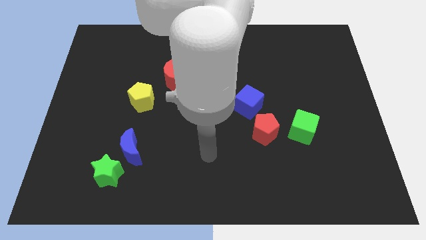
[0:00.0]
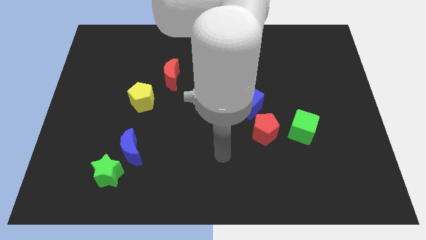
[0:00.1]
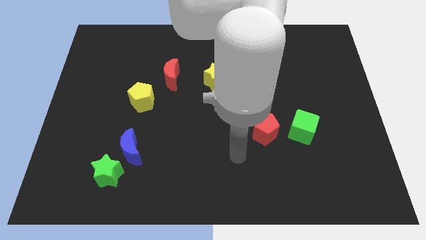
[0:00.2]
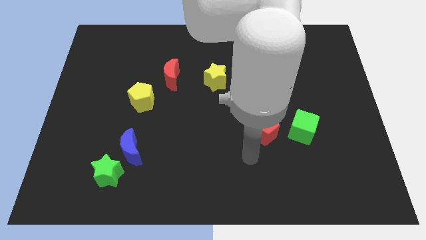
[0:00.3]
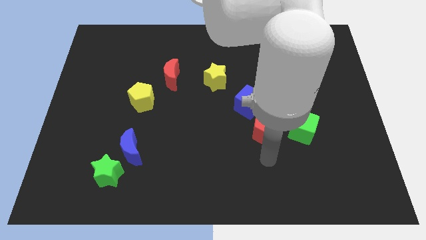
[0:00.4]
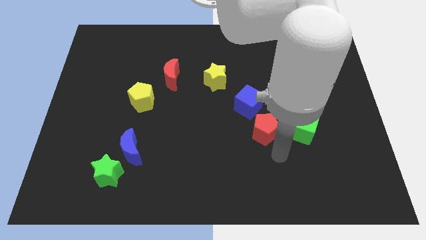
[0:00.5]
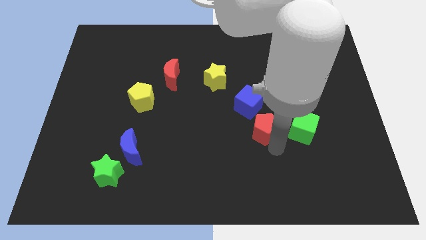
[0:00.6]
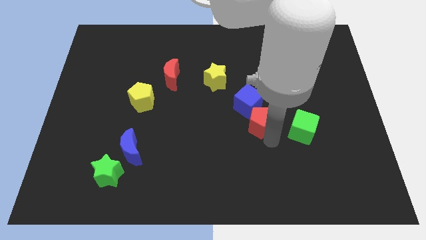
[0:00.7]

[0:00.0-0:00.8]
put the red pentagon towards the blue cube

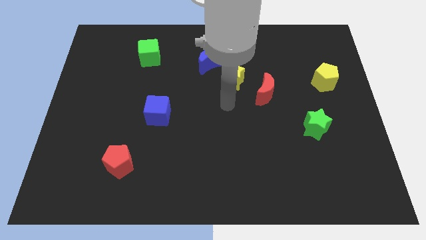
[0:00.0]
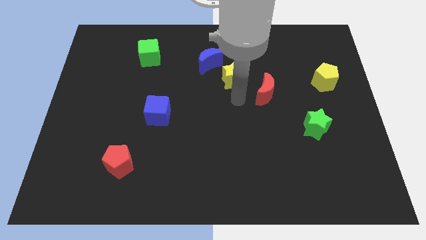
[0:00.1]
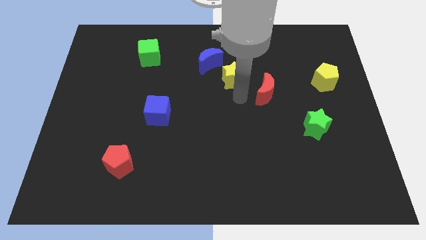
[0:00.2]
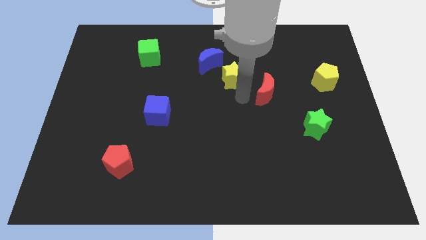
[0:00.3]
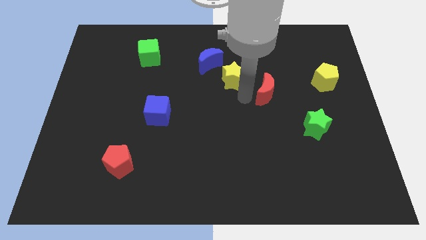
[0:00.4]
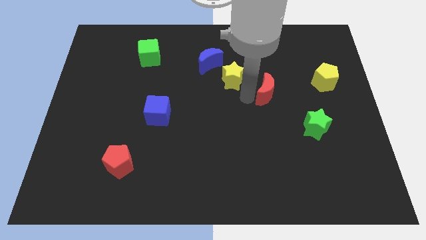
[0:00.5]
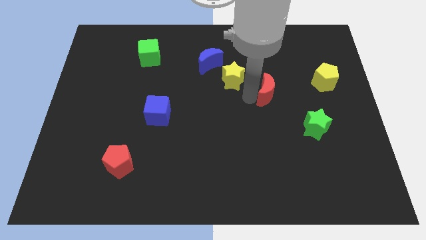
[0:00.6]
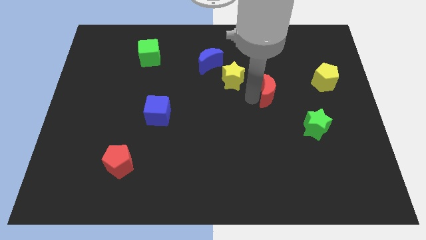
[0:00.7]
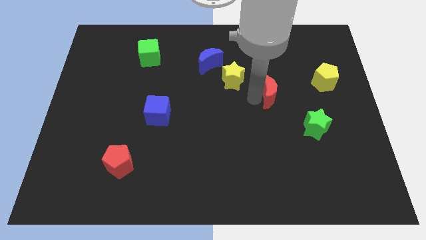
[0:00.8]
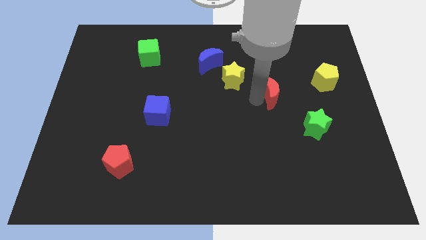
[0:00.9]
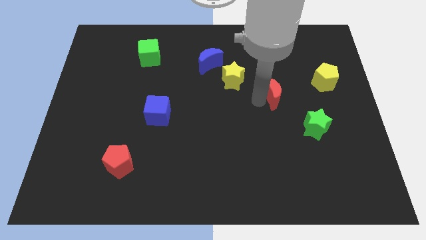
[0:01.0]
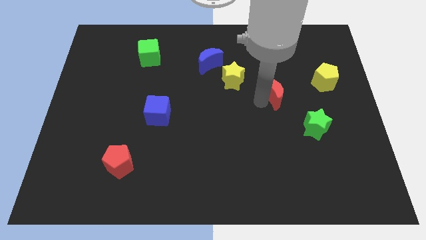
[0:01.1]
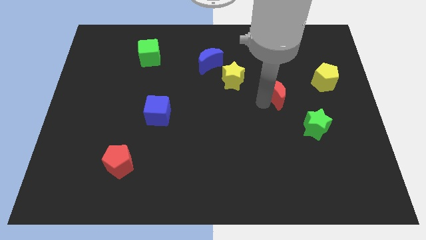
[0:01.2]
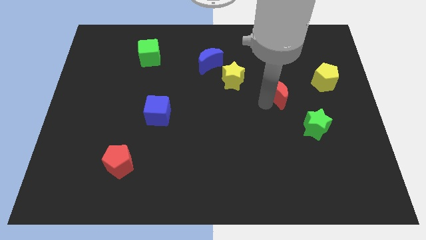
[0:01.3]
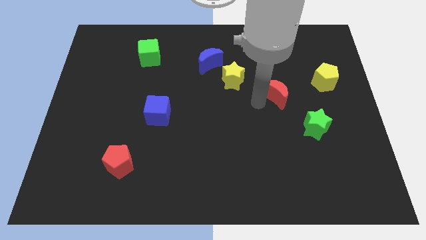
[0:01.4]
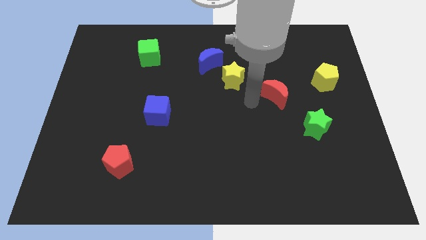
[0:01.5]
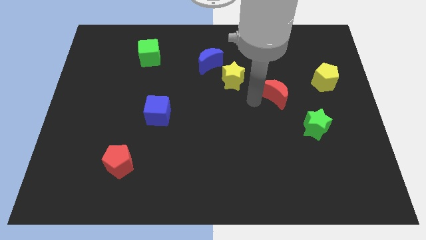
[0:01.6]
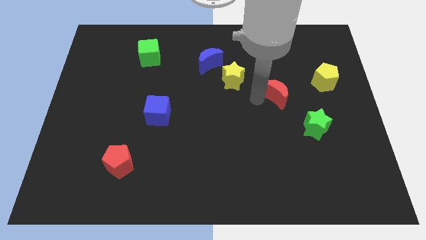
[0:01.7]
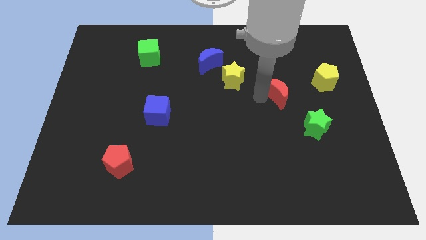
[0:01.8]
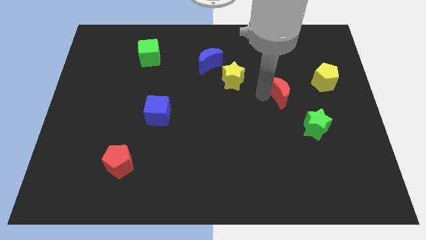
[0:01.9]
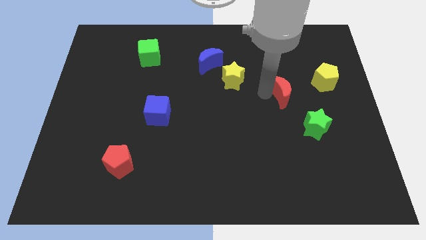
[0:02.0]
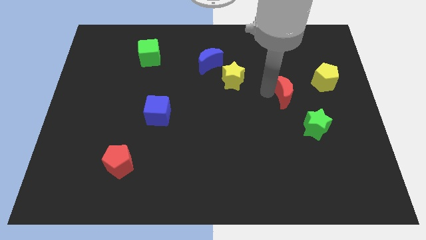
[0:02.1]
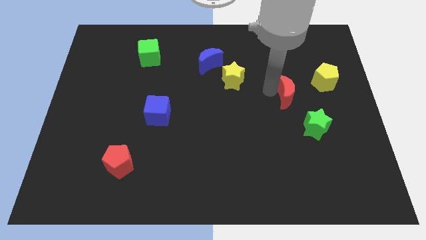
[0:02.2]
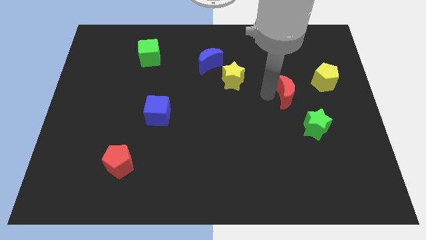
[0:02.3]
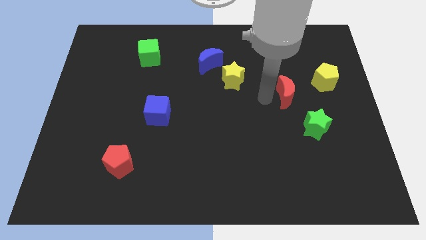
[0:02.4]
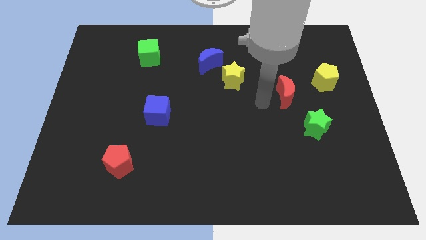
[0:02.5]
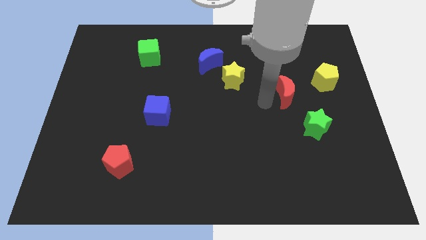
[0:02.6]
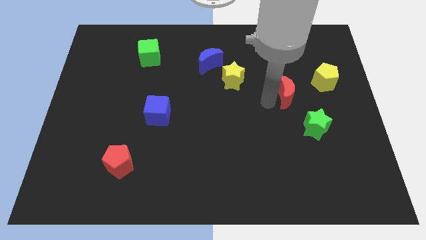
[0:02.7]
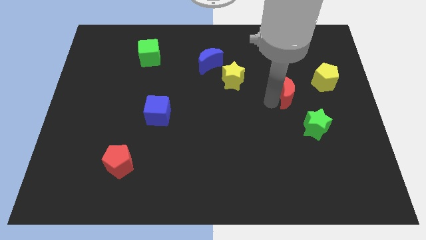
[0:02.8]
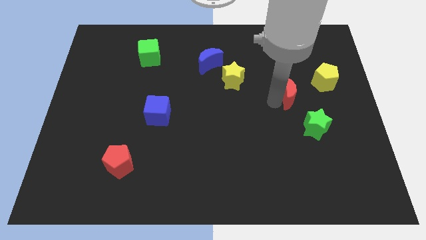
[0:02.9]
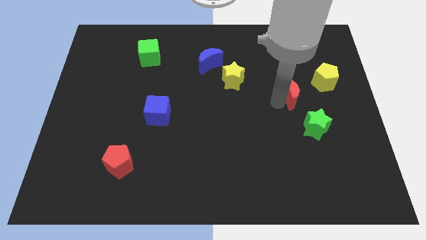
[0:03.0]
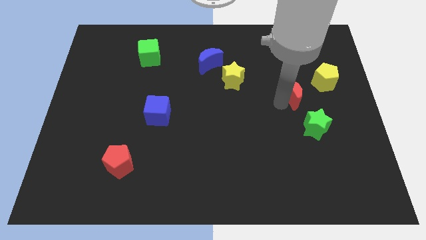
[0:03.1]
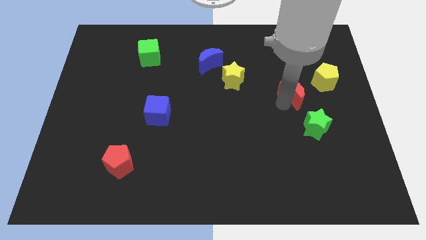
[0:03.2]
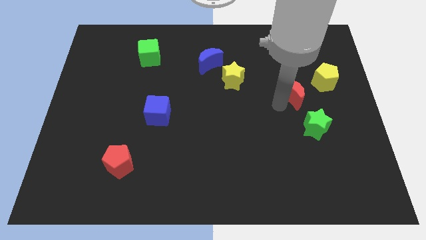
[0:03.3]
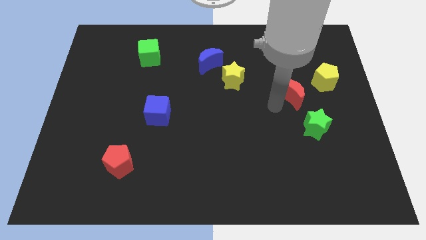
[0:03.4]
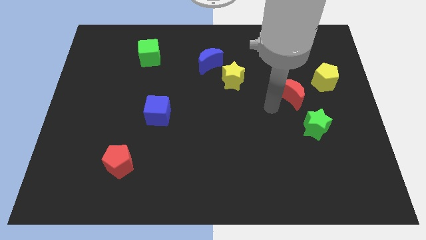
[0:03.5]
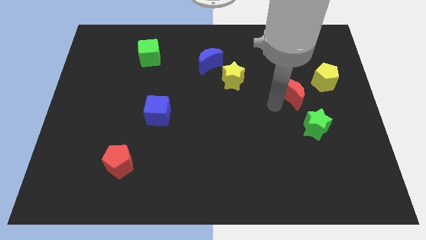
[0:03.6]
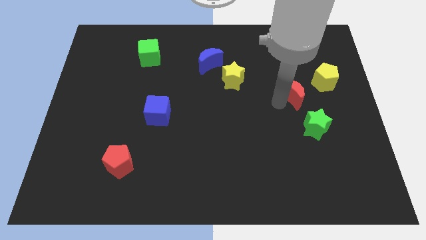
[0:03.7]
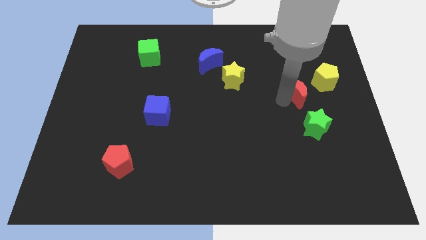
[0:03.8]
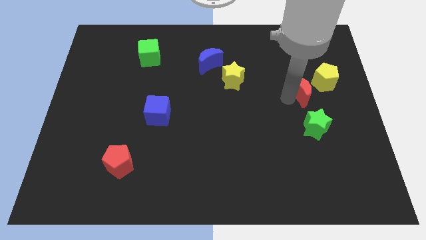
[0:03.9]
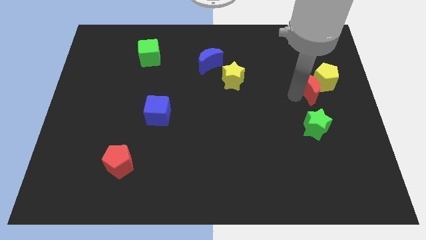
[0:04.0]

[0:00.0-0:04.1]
push the red moon close to the yellow pentagon

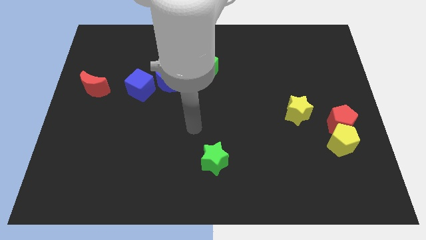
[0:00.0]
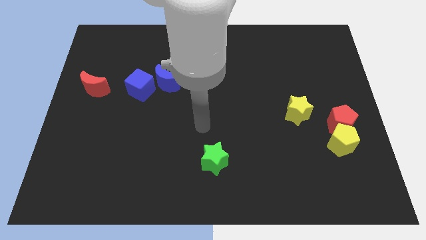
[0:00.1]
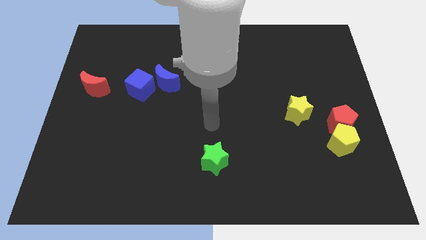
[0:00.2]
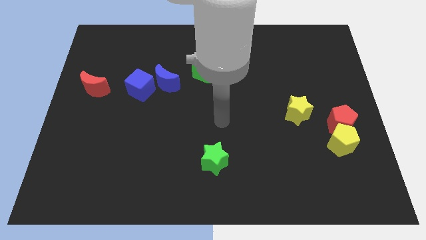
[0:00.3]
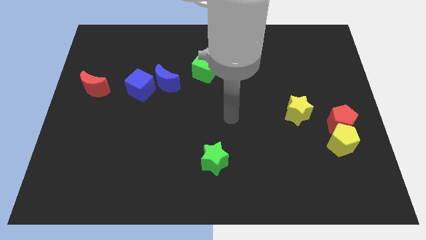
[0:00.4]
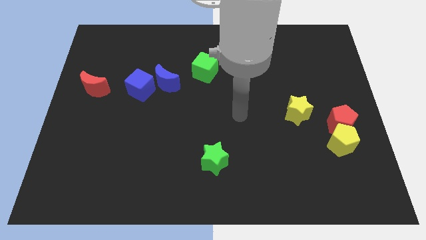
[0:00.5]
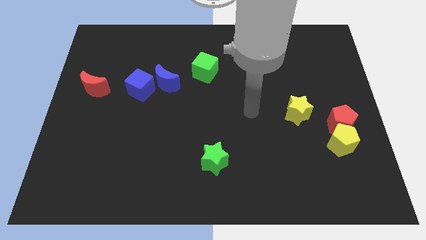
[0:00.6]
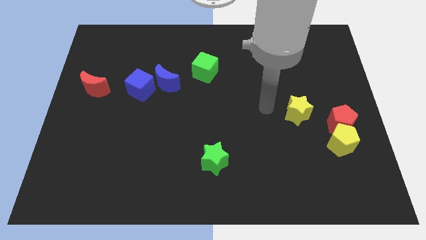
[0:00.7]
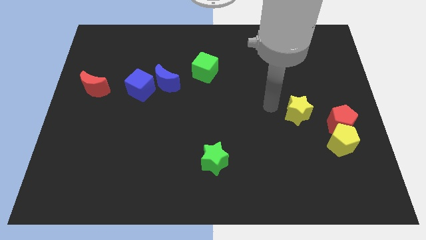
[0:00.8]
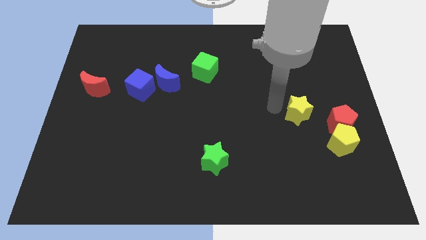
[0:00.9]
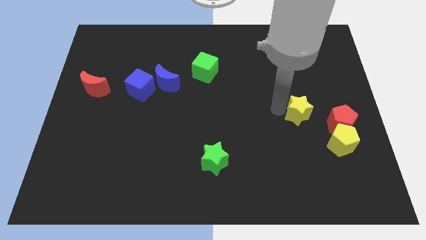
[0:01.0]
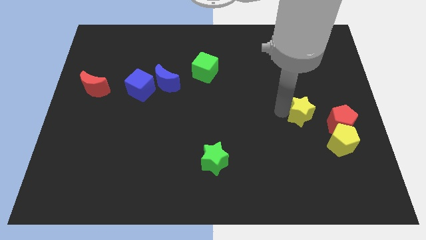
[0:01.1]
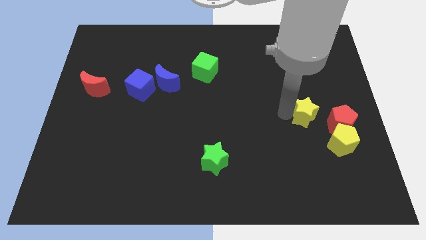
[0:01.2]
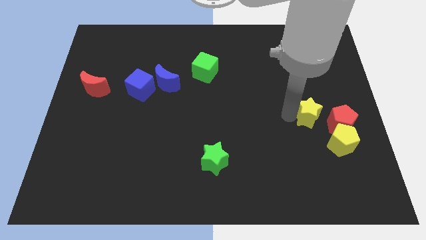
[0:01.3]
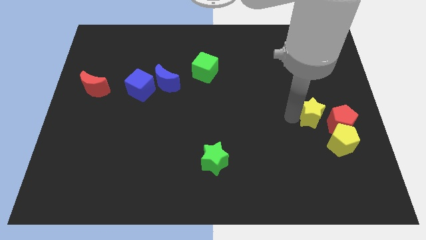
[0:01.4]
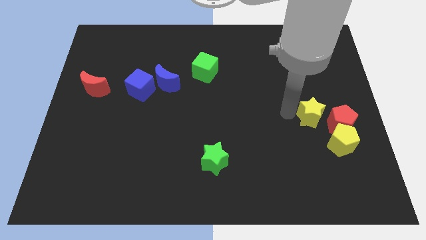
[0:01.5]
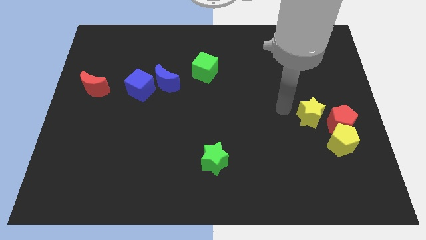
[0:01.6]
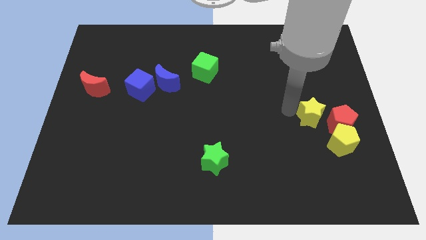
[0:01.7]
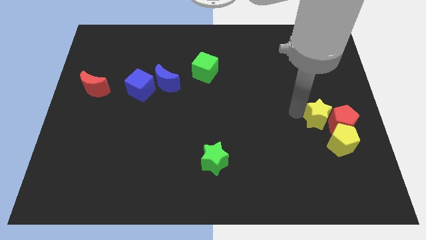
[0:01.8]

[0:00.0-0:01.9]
put the yellow star towards the red pentagon

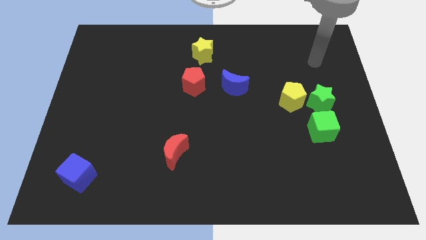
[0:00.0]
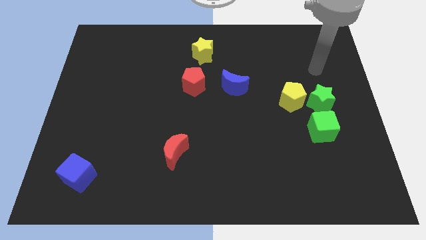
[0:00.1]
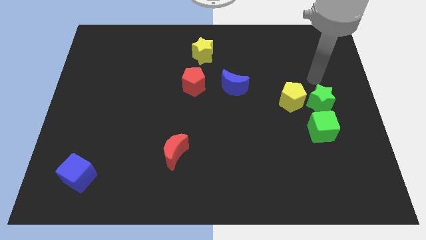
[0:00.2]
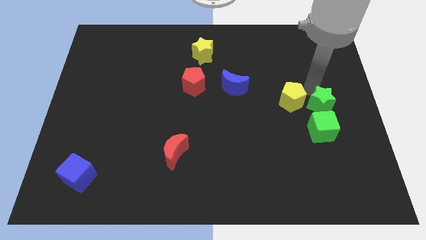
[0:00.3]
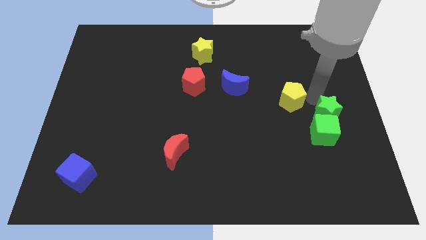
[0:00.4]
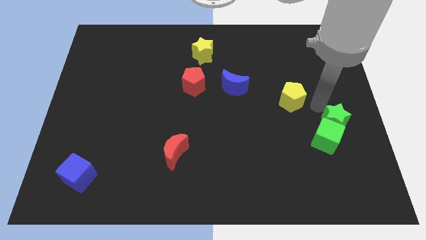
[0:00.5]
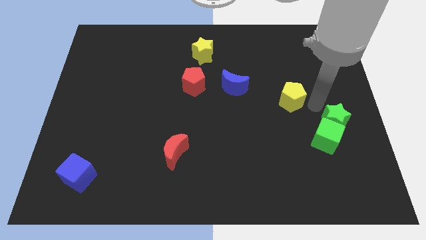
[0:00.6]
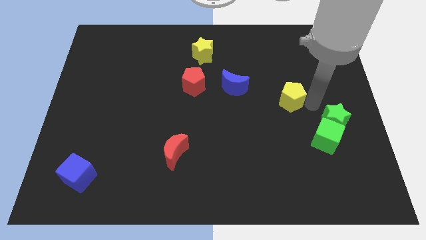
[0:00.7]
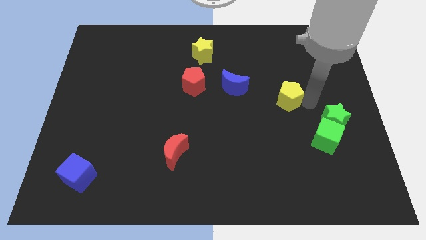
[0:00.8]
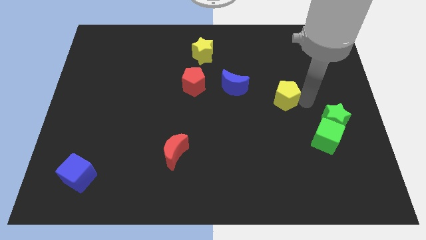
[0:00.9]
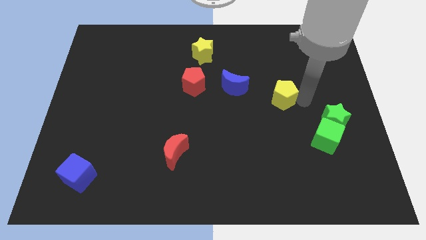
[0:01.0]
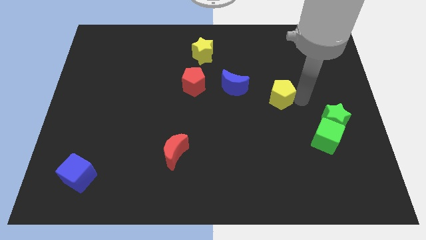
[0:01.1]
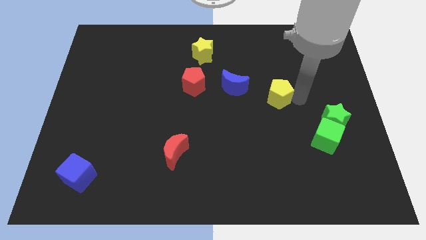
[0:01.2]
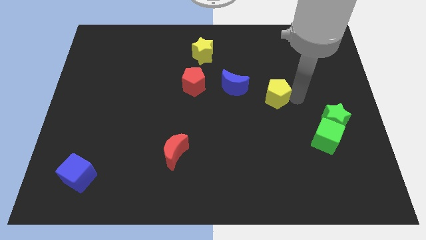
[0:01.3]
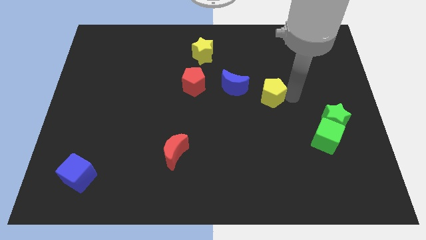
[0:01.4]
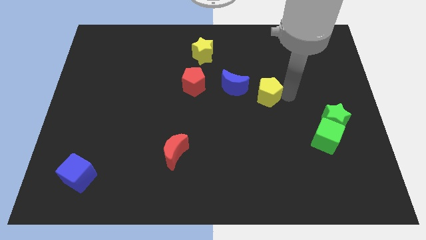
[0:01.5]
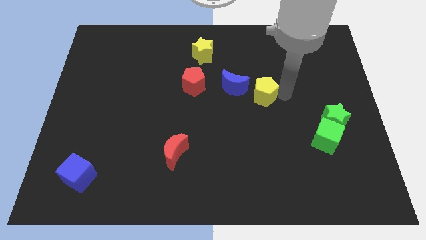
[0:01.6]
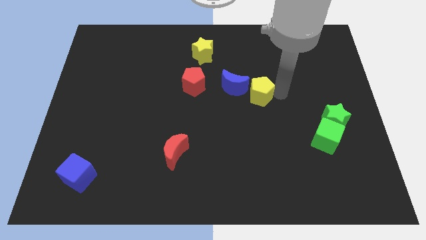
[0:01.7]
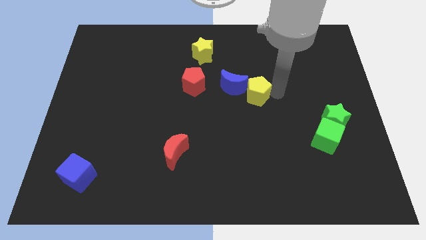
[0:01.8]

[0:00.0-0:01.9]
put the yellow pentagon towards the blue moon
